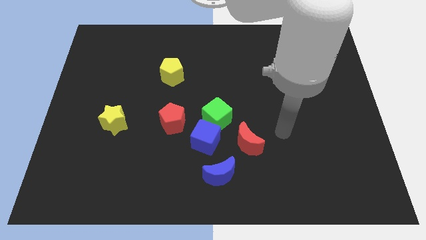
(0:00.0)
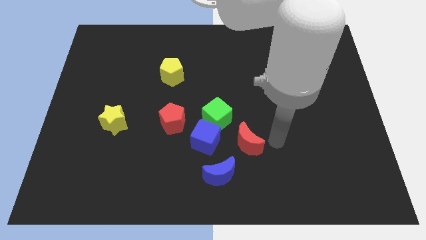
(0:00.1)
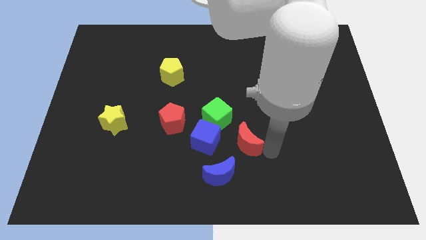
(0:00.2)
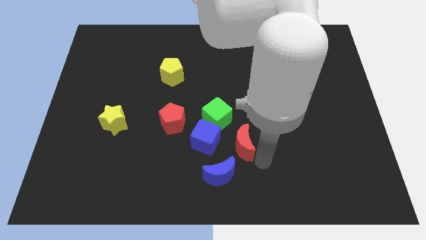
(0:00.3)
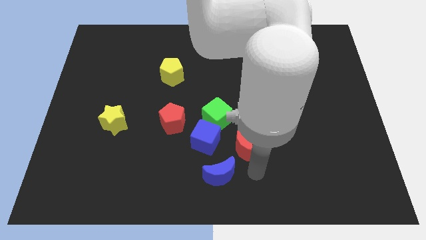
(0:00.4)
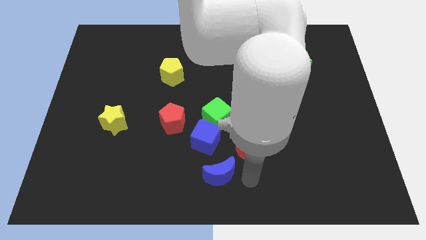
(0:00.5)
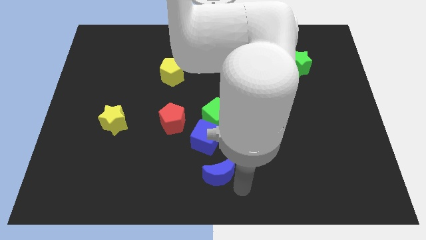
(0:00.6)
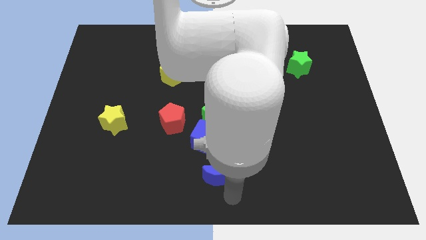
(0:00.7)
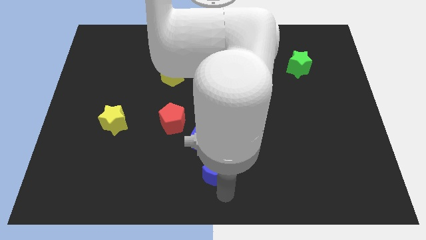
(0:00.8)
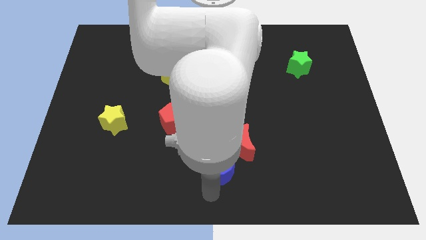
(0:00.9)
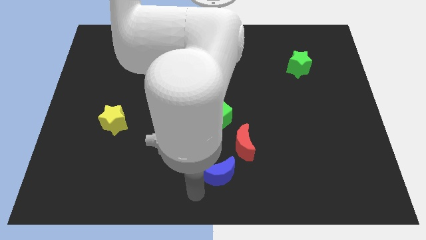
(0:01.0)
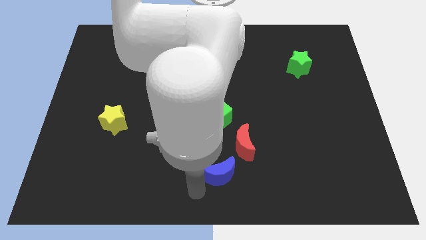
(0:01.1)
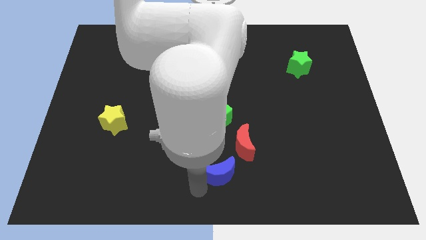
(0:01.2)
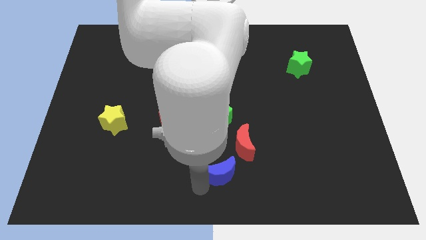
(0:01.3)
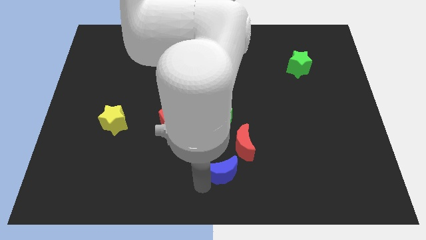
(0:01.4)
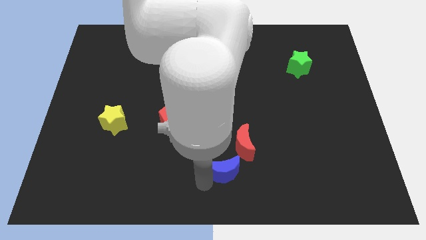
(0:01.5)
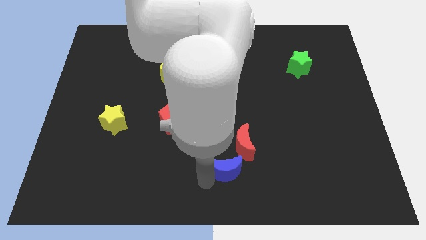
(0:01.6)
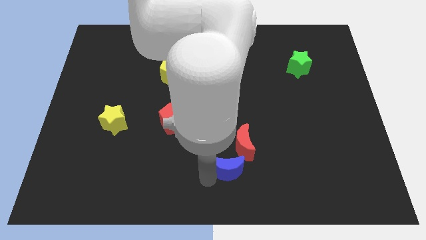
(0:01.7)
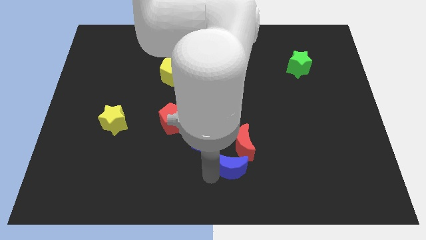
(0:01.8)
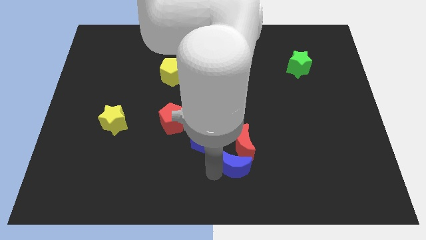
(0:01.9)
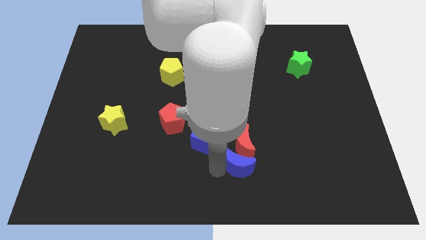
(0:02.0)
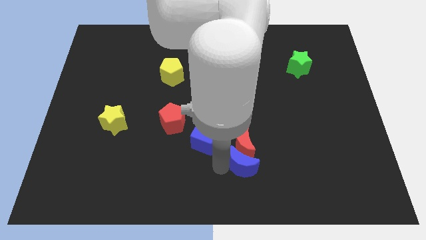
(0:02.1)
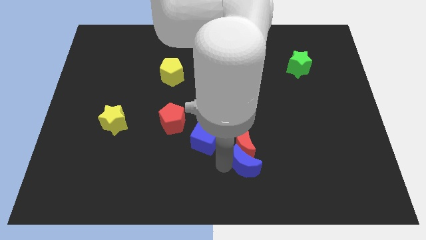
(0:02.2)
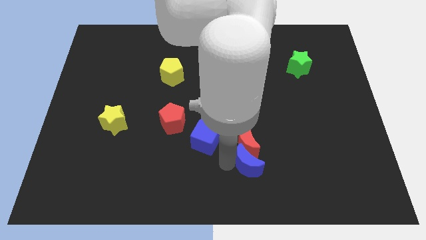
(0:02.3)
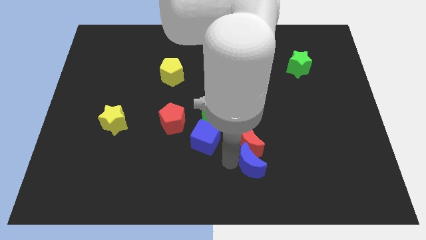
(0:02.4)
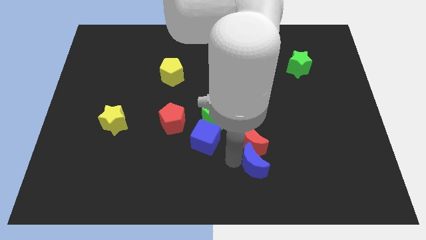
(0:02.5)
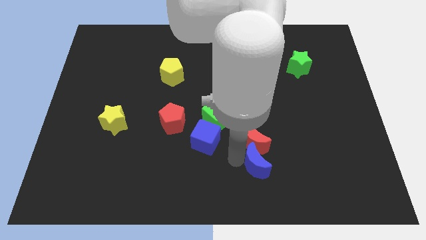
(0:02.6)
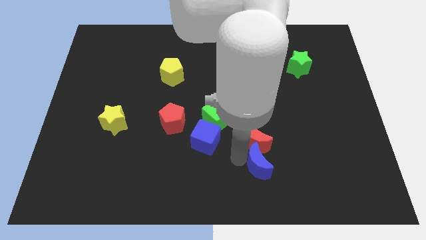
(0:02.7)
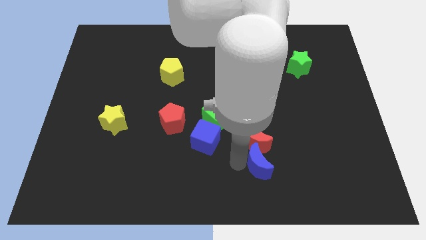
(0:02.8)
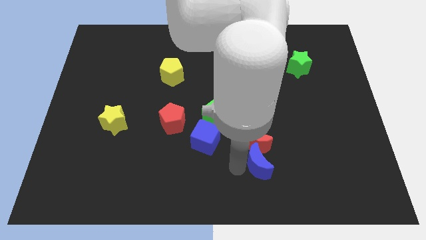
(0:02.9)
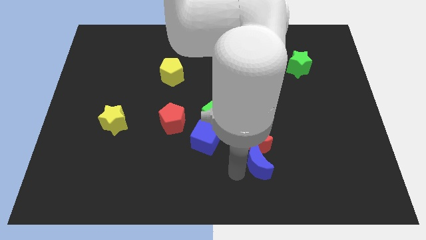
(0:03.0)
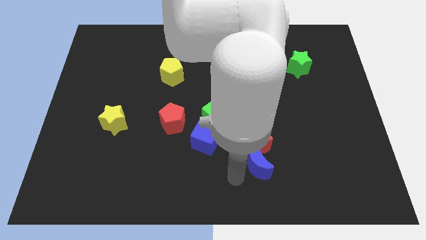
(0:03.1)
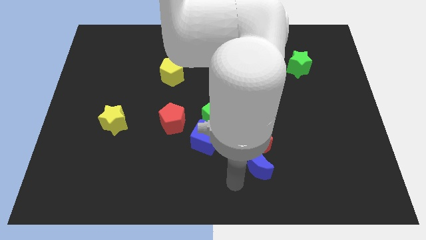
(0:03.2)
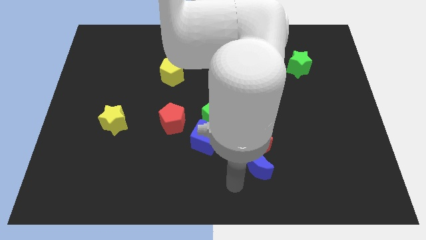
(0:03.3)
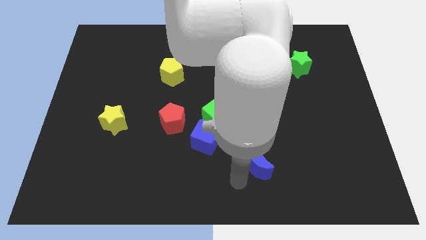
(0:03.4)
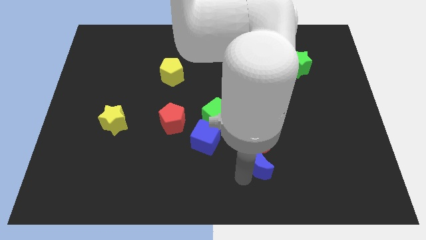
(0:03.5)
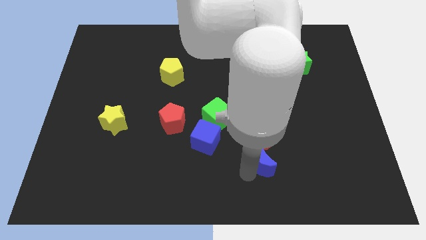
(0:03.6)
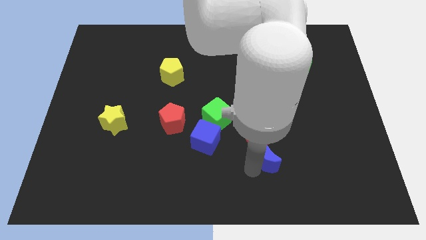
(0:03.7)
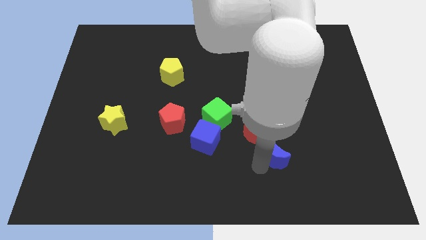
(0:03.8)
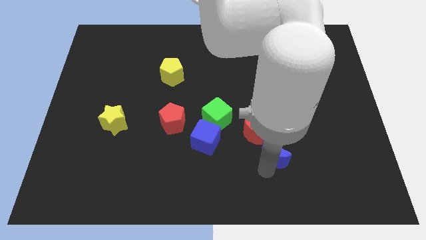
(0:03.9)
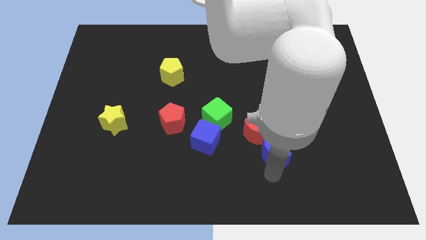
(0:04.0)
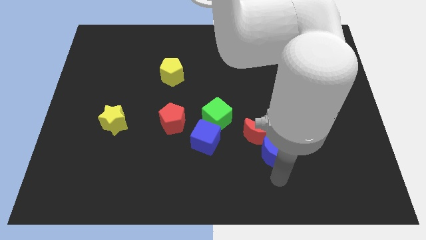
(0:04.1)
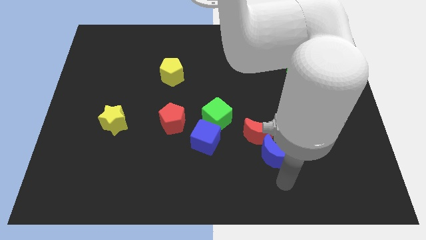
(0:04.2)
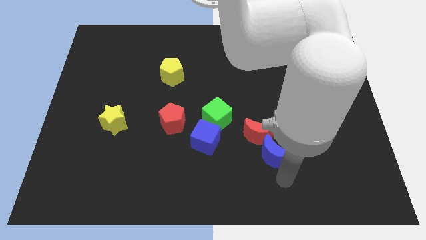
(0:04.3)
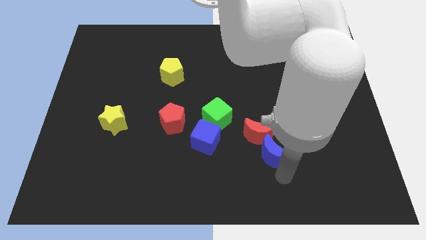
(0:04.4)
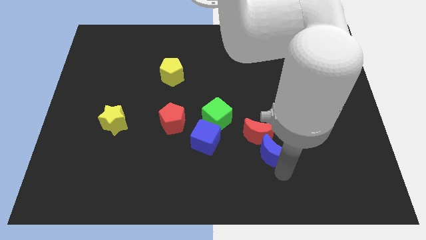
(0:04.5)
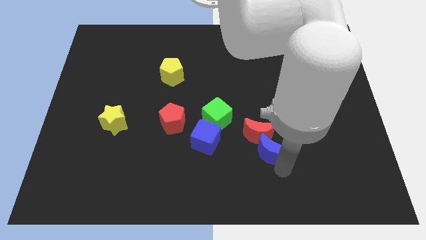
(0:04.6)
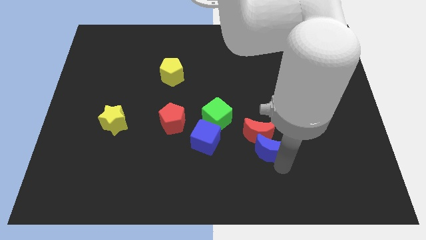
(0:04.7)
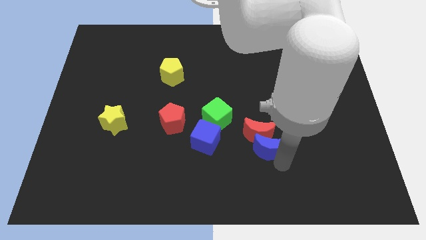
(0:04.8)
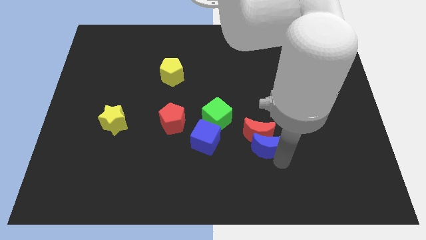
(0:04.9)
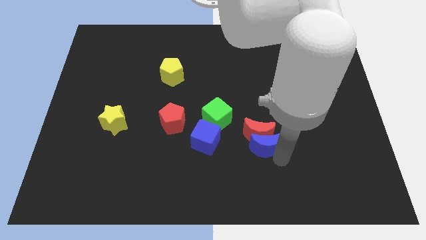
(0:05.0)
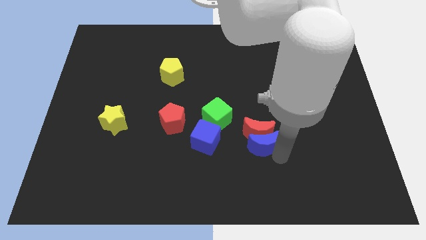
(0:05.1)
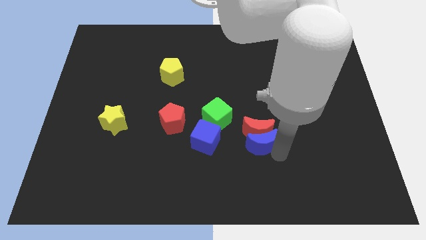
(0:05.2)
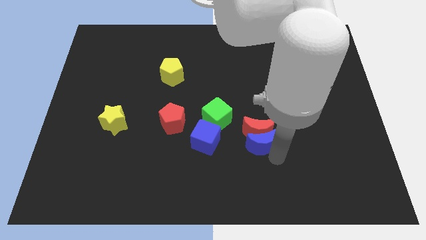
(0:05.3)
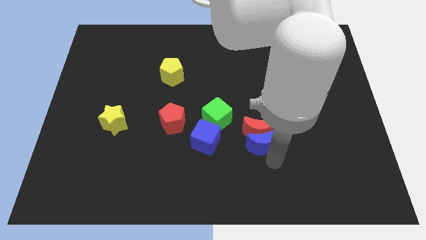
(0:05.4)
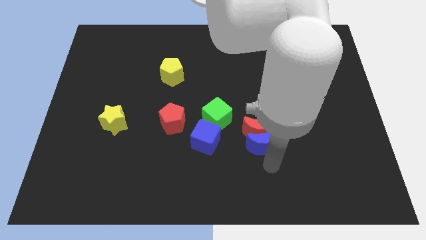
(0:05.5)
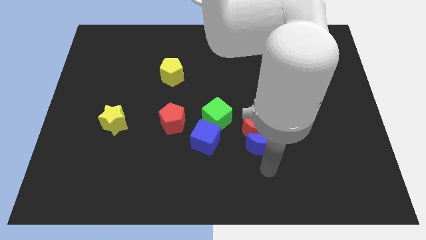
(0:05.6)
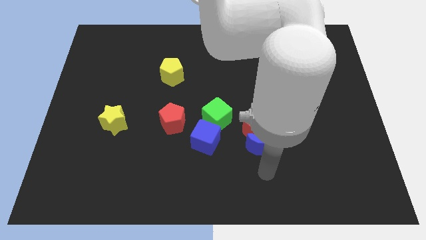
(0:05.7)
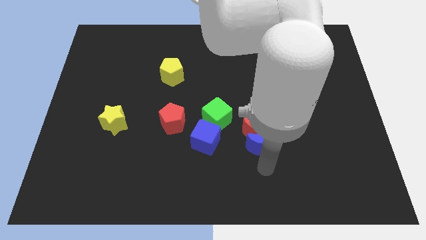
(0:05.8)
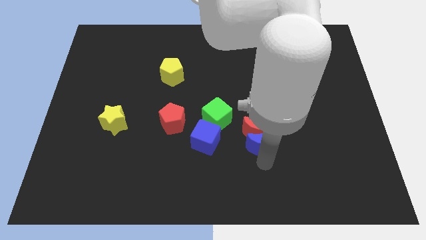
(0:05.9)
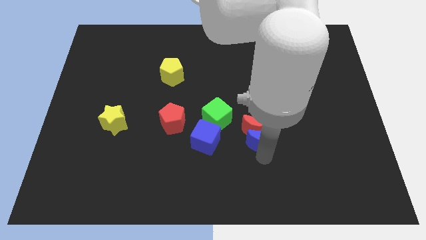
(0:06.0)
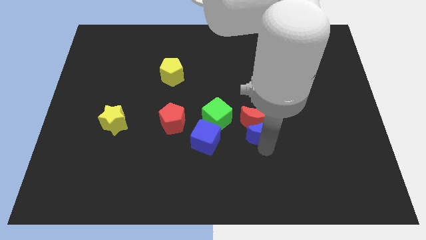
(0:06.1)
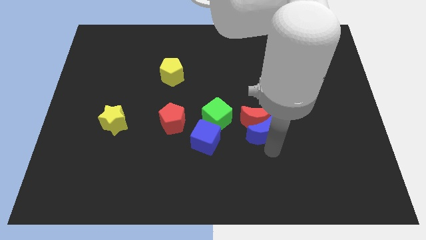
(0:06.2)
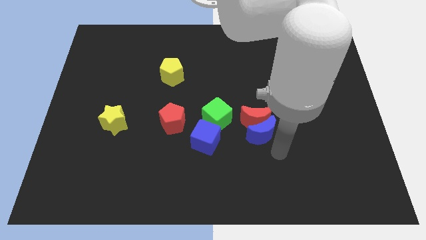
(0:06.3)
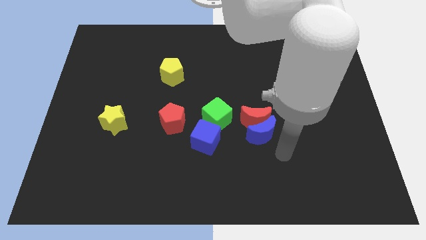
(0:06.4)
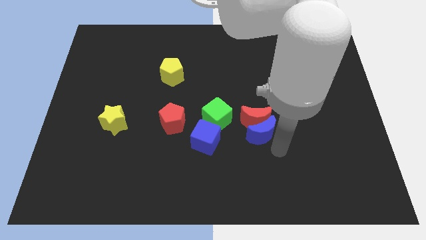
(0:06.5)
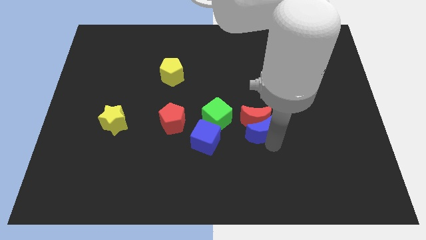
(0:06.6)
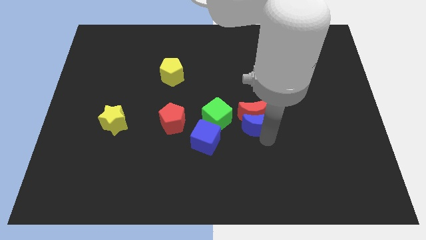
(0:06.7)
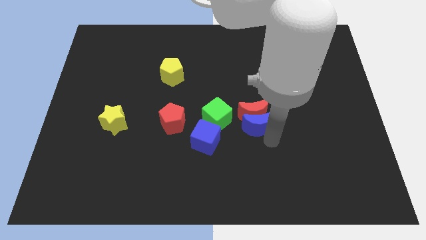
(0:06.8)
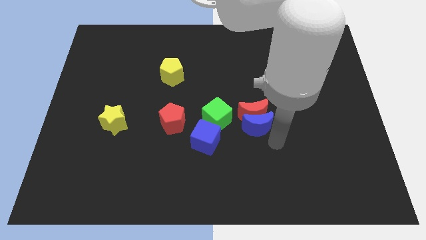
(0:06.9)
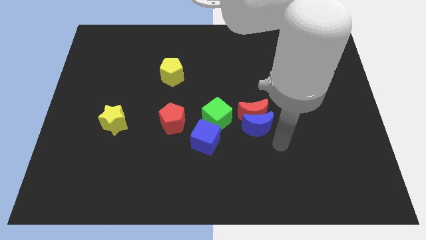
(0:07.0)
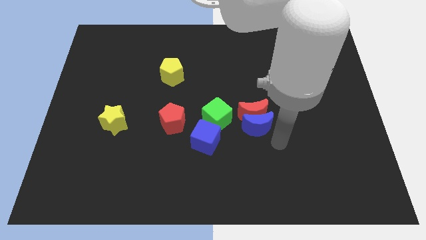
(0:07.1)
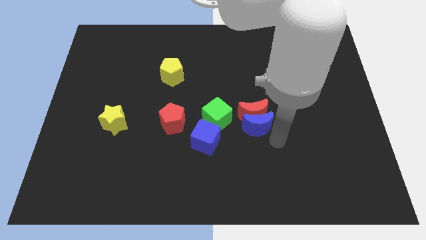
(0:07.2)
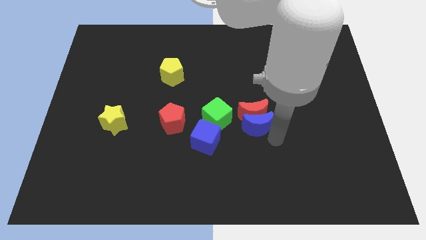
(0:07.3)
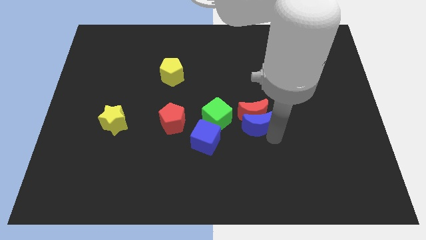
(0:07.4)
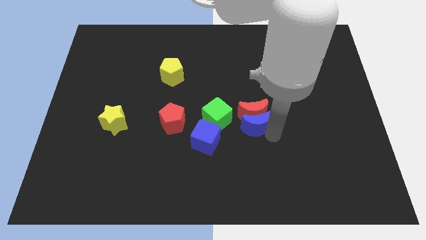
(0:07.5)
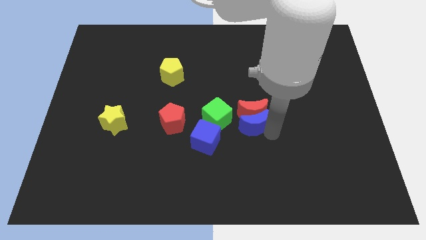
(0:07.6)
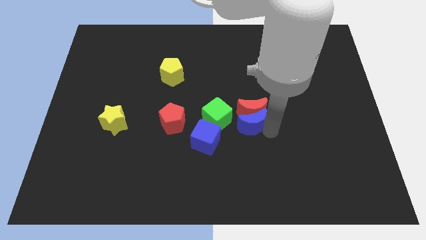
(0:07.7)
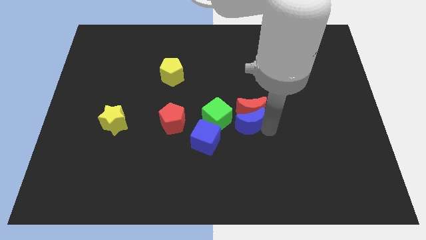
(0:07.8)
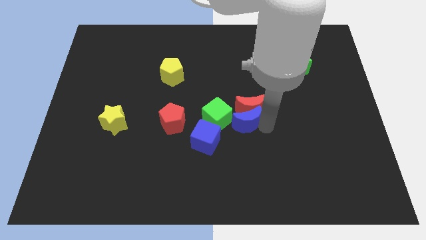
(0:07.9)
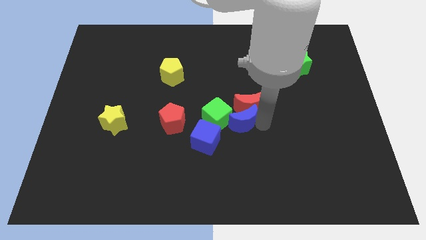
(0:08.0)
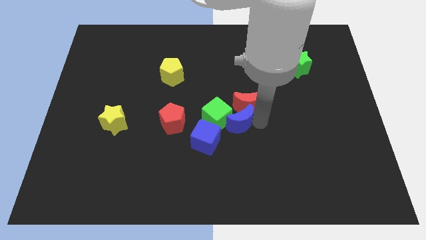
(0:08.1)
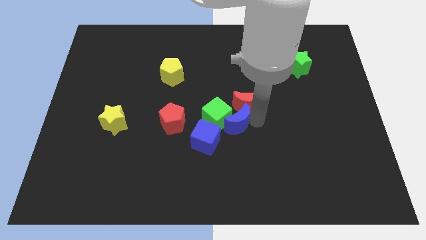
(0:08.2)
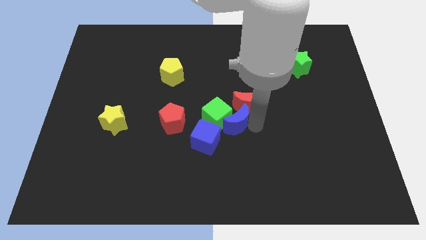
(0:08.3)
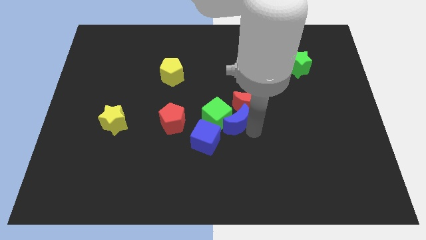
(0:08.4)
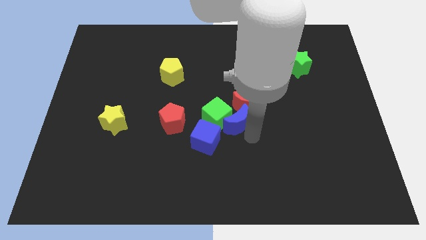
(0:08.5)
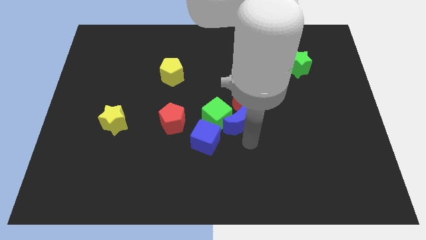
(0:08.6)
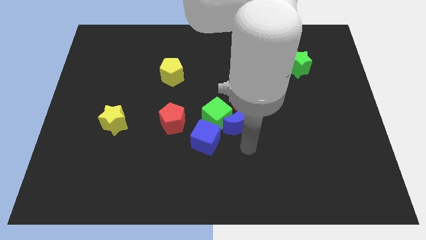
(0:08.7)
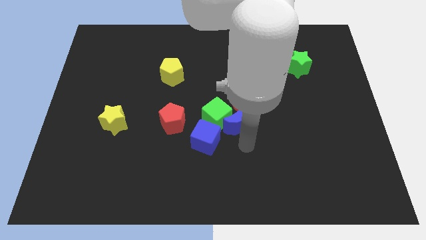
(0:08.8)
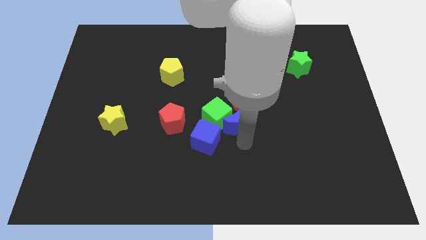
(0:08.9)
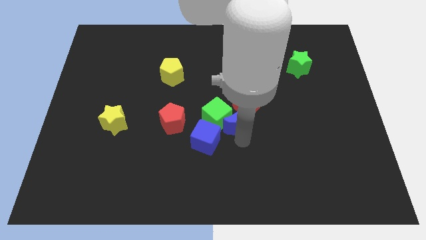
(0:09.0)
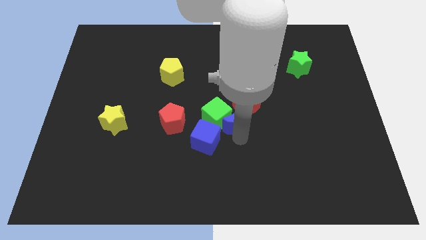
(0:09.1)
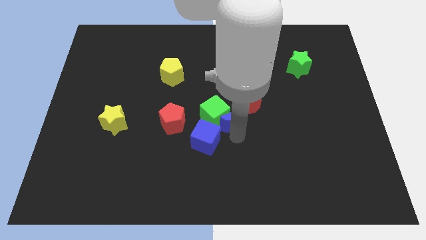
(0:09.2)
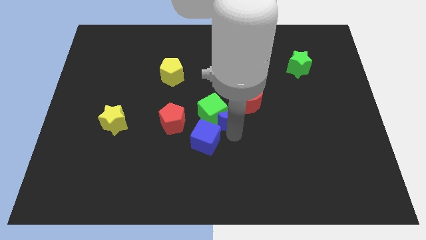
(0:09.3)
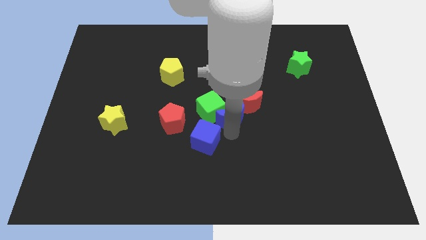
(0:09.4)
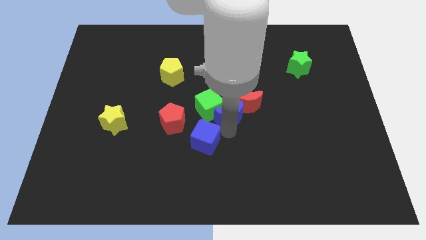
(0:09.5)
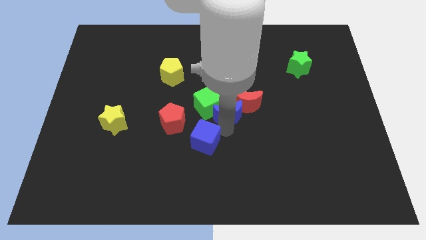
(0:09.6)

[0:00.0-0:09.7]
push the blue moon to the top side of the blue cube
